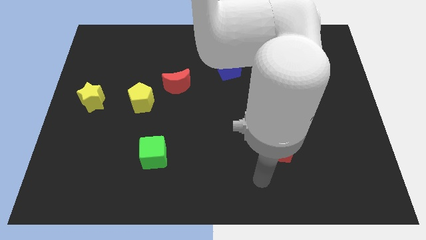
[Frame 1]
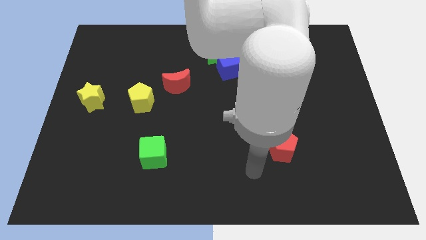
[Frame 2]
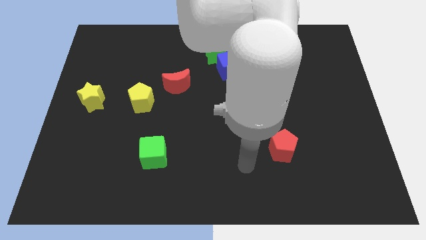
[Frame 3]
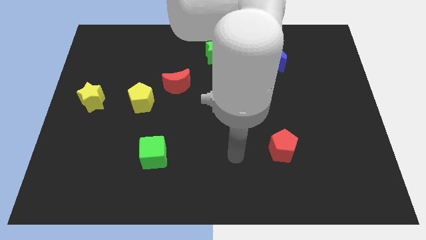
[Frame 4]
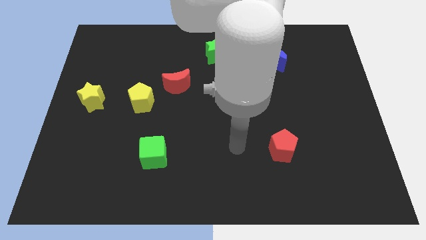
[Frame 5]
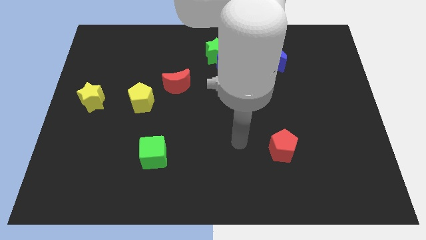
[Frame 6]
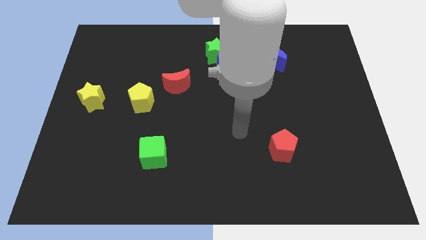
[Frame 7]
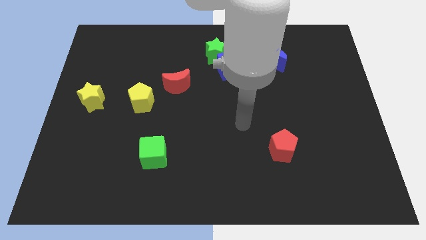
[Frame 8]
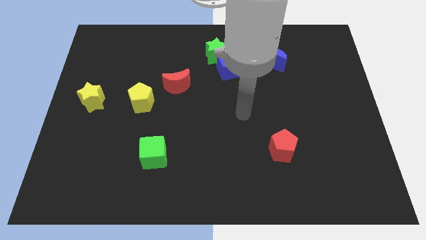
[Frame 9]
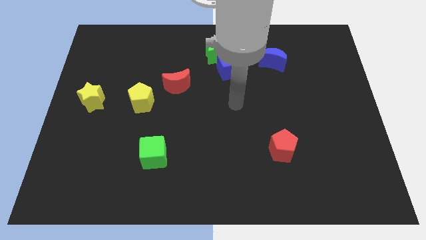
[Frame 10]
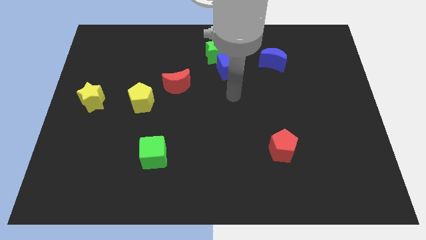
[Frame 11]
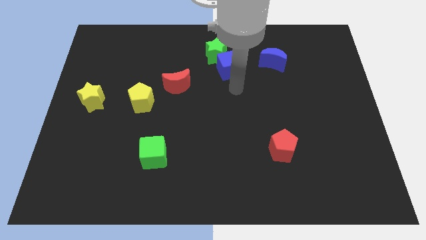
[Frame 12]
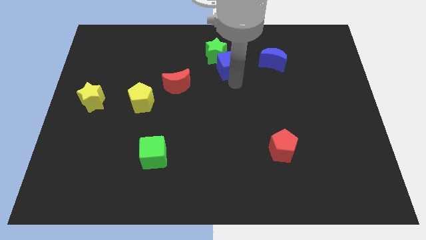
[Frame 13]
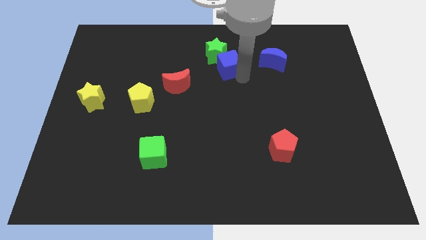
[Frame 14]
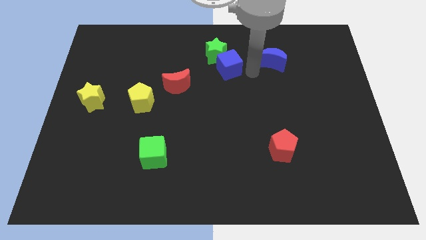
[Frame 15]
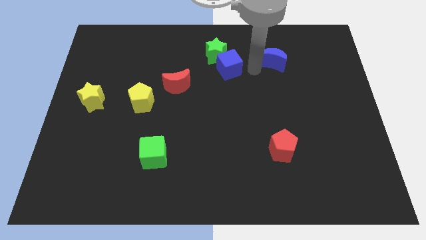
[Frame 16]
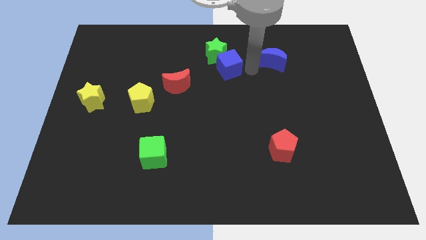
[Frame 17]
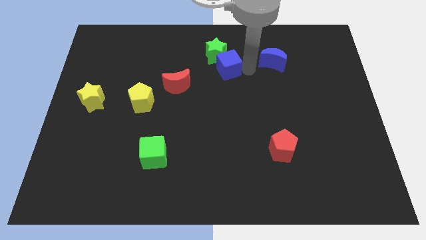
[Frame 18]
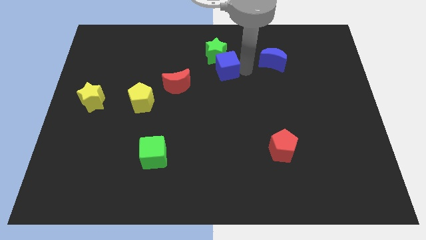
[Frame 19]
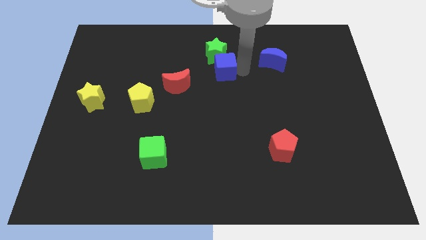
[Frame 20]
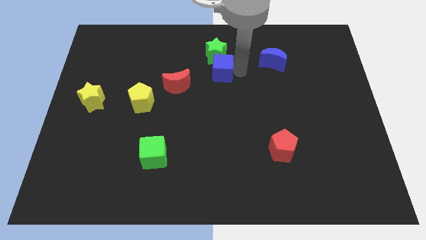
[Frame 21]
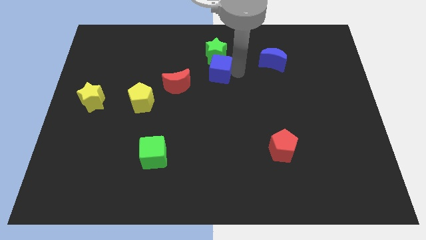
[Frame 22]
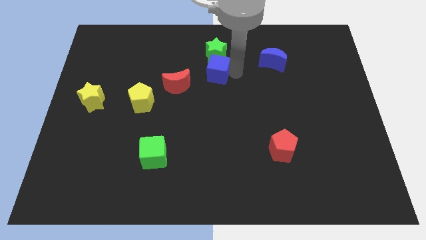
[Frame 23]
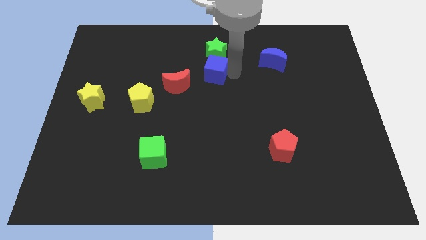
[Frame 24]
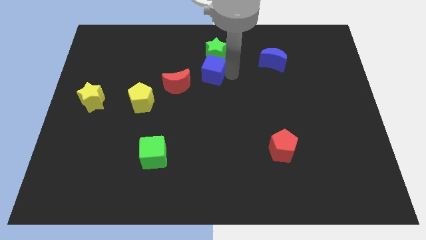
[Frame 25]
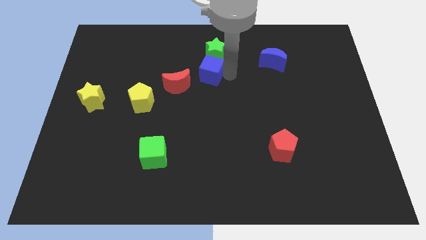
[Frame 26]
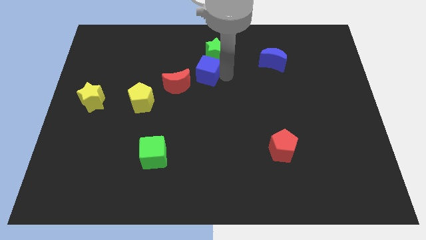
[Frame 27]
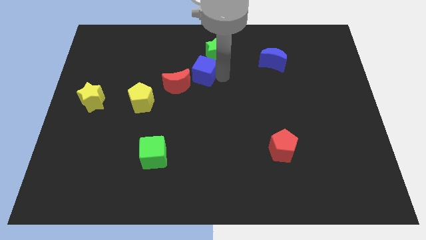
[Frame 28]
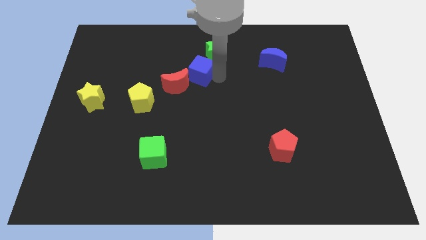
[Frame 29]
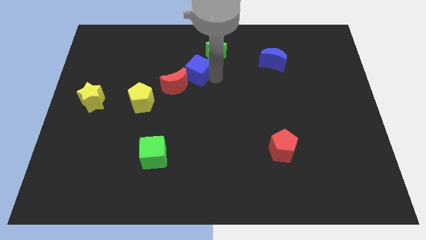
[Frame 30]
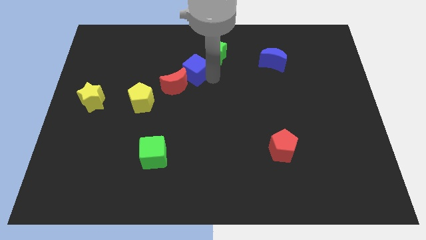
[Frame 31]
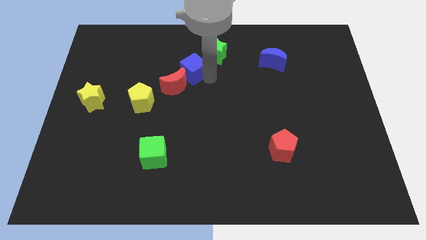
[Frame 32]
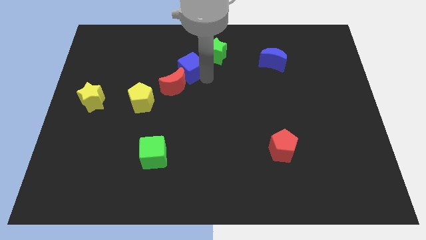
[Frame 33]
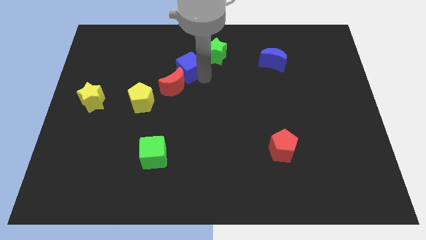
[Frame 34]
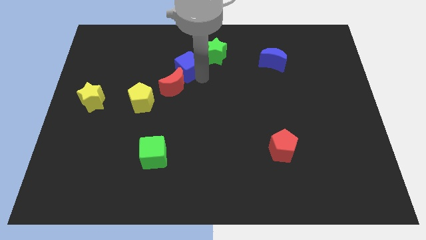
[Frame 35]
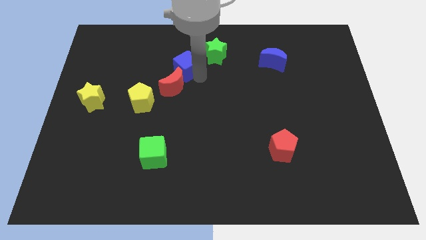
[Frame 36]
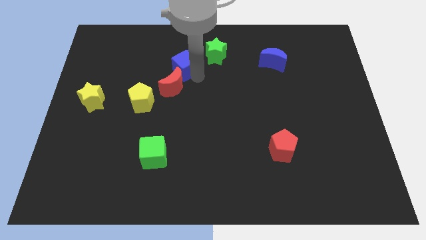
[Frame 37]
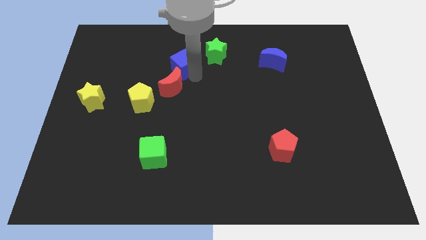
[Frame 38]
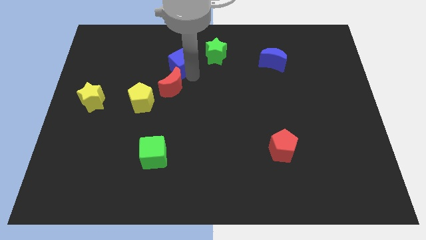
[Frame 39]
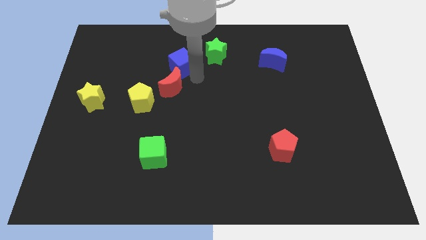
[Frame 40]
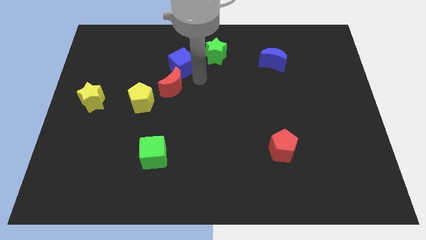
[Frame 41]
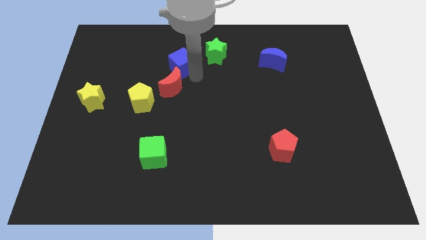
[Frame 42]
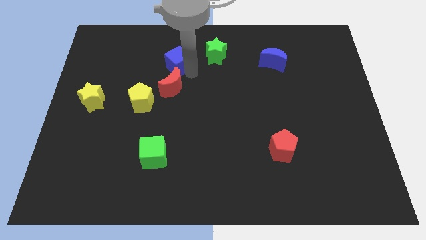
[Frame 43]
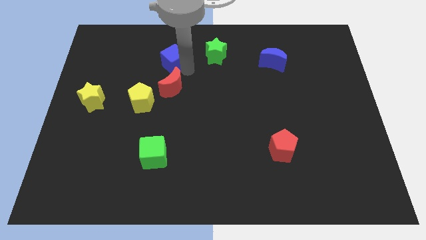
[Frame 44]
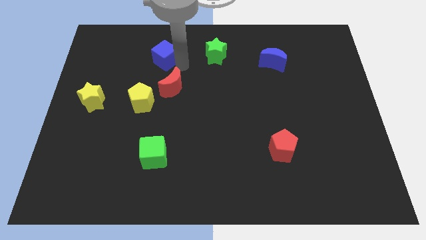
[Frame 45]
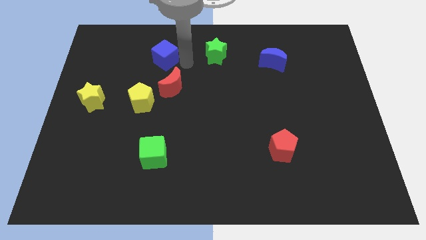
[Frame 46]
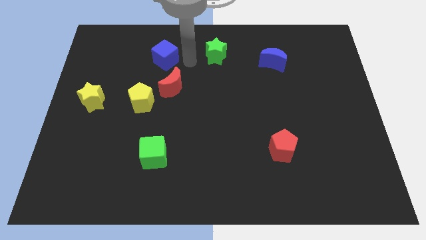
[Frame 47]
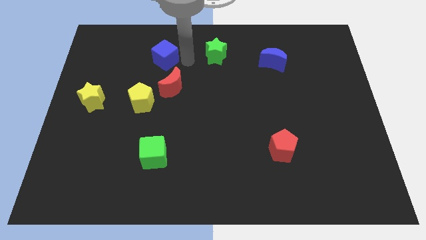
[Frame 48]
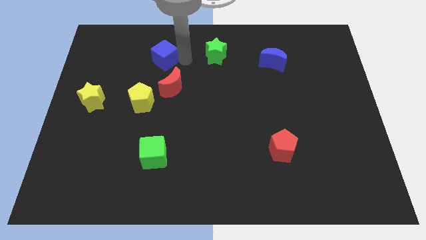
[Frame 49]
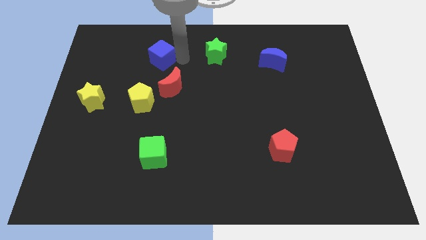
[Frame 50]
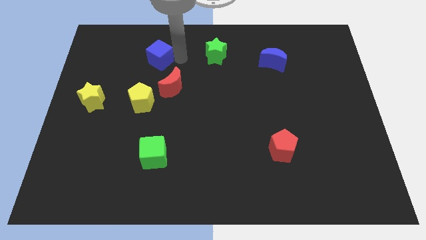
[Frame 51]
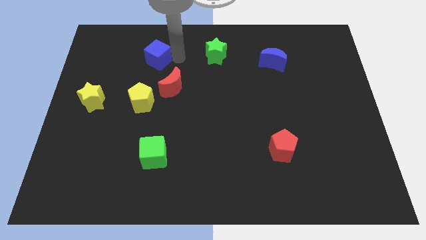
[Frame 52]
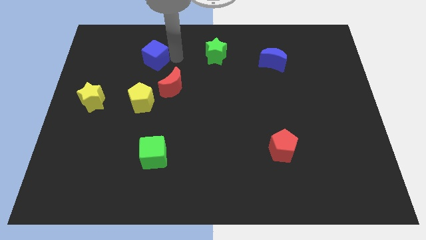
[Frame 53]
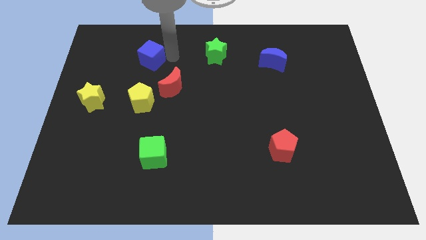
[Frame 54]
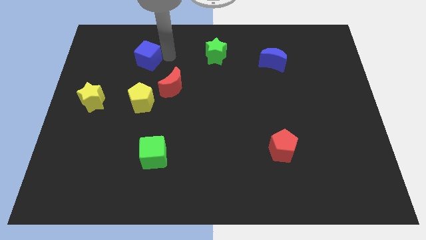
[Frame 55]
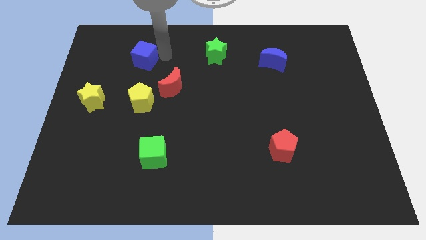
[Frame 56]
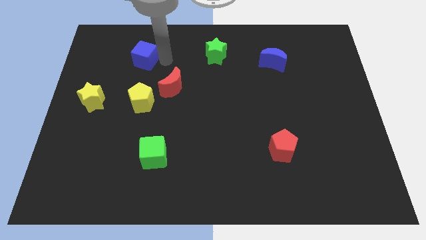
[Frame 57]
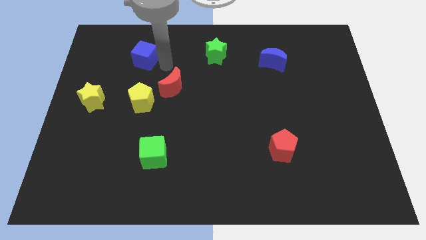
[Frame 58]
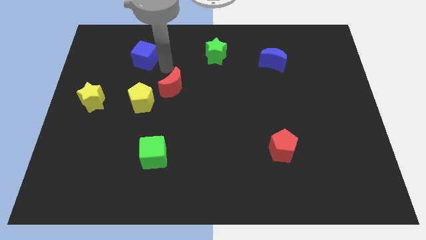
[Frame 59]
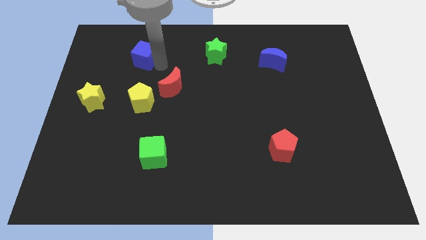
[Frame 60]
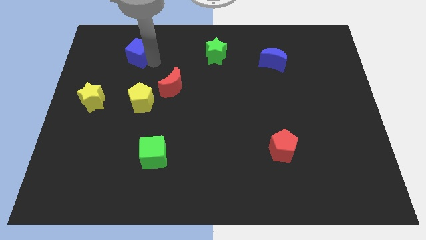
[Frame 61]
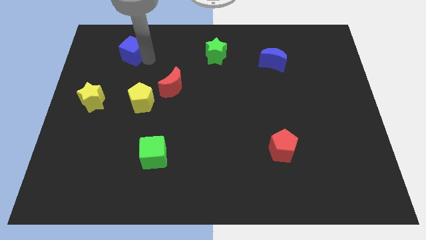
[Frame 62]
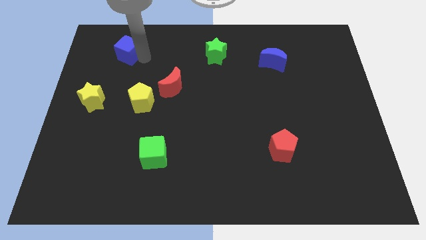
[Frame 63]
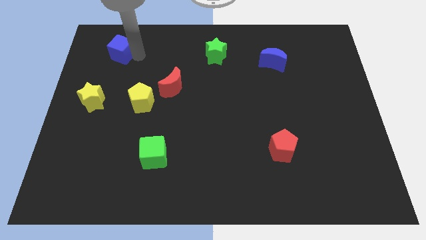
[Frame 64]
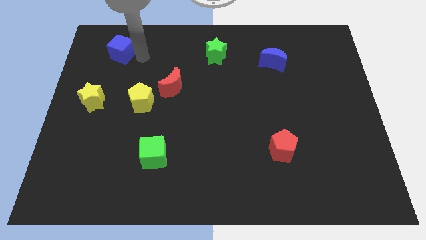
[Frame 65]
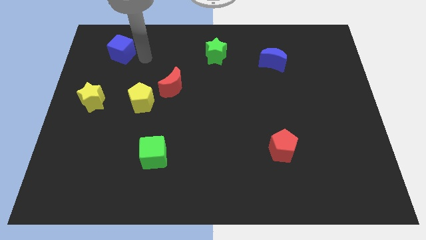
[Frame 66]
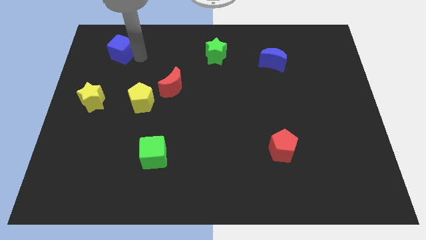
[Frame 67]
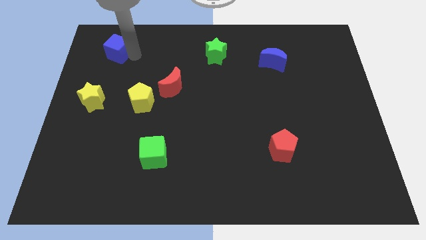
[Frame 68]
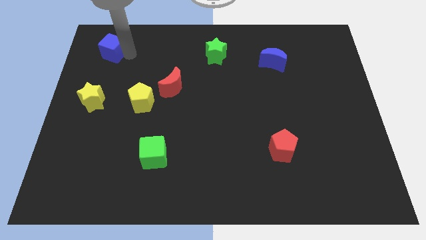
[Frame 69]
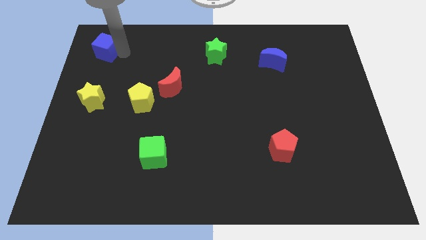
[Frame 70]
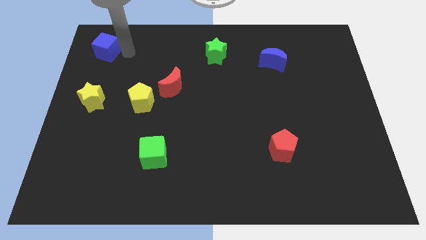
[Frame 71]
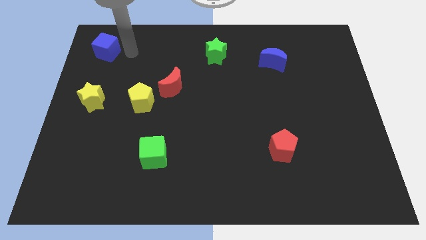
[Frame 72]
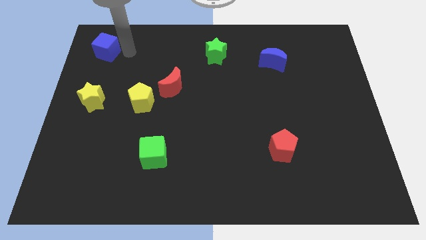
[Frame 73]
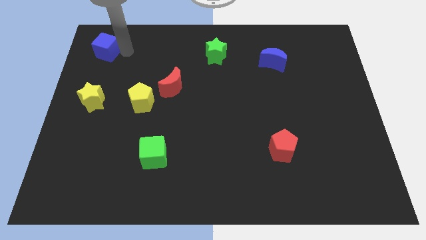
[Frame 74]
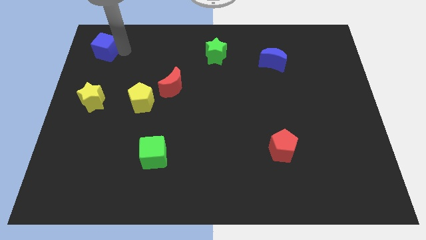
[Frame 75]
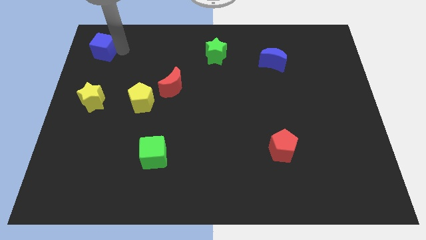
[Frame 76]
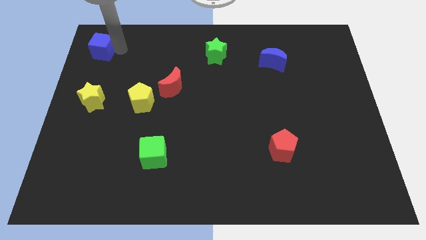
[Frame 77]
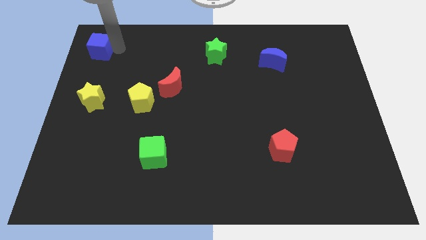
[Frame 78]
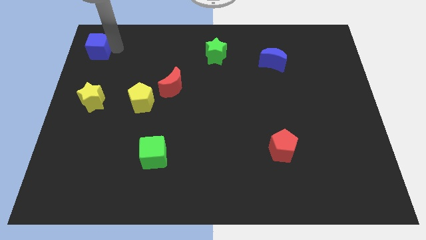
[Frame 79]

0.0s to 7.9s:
slide the blue cube to the upper left corner
